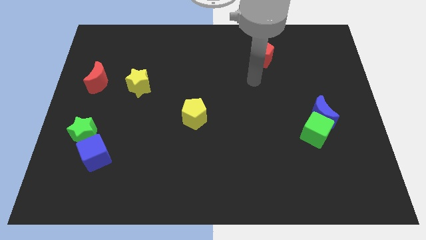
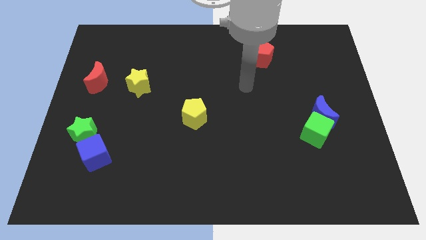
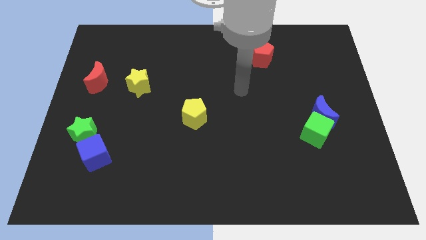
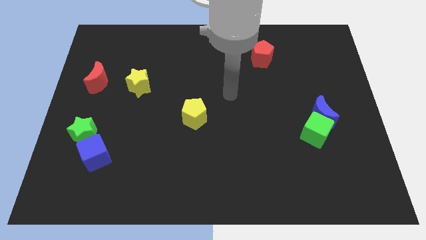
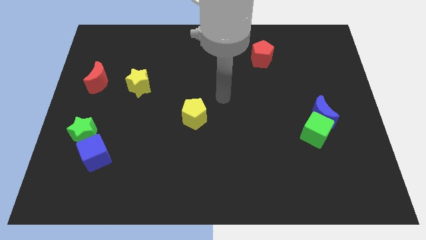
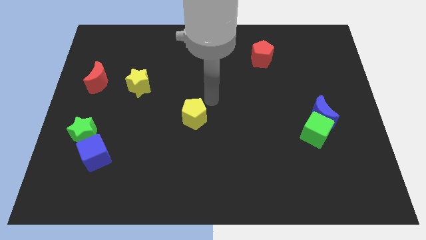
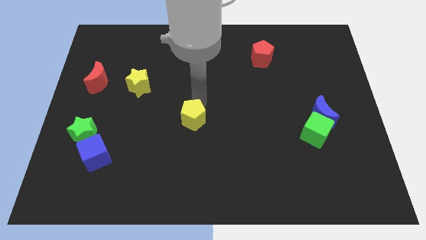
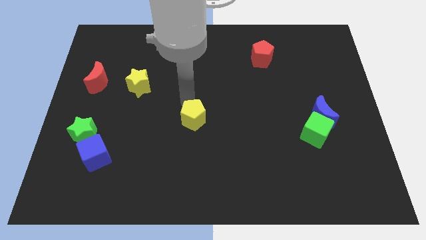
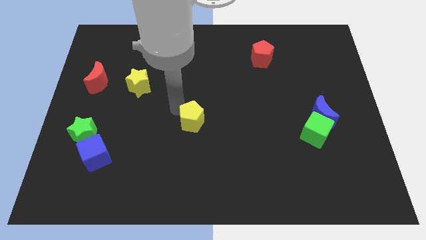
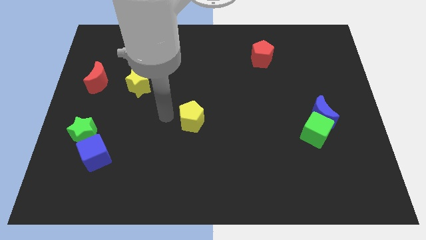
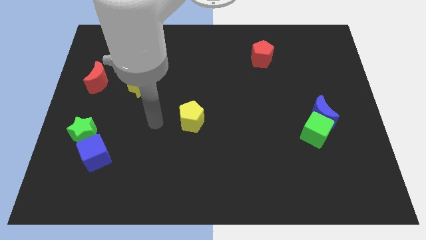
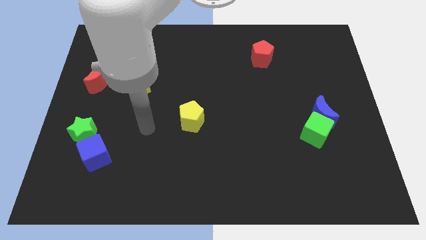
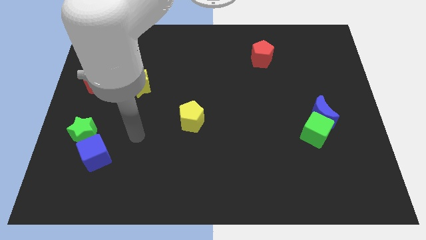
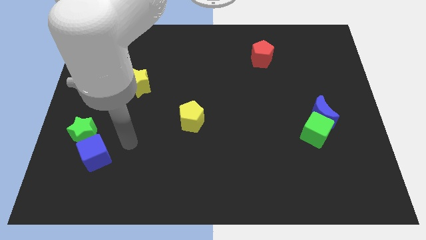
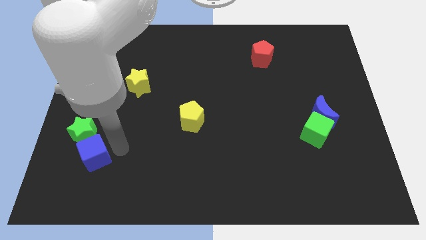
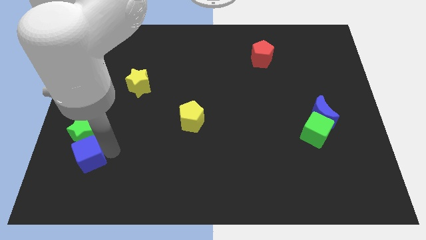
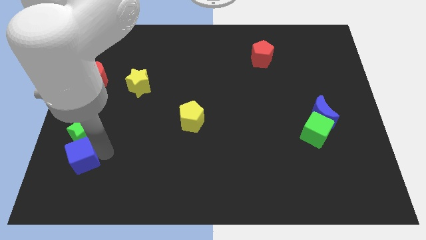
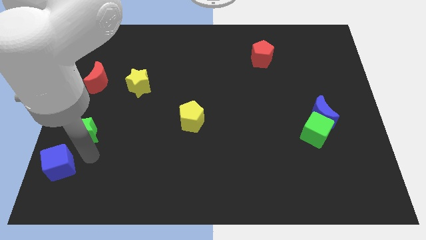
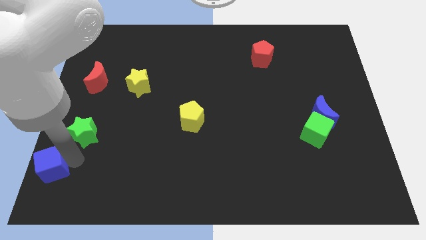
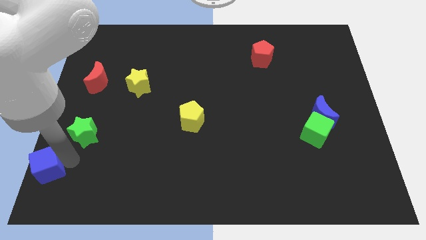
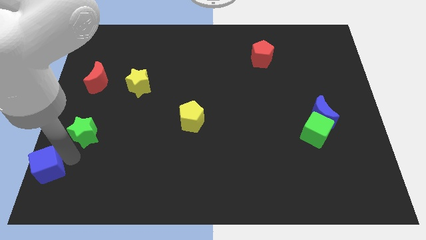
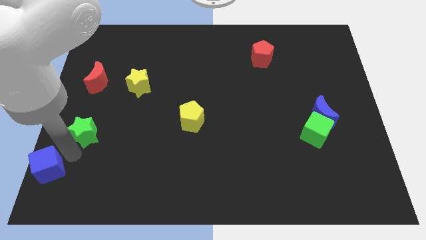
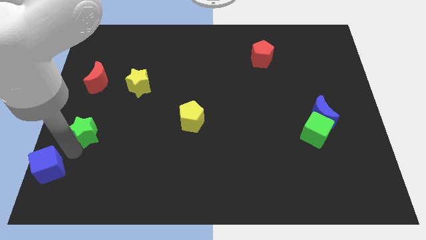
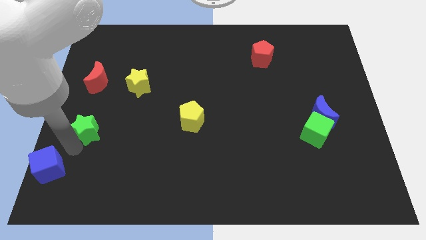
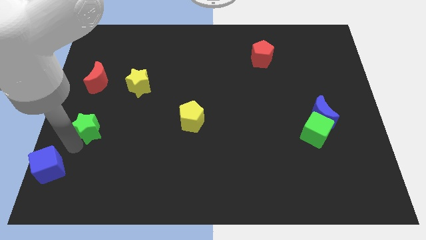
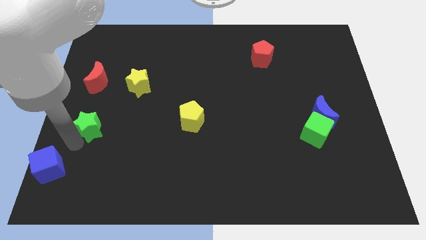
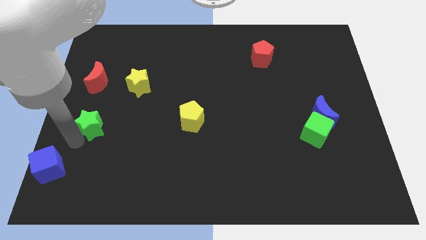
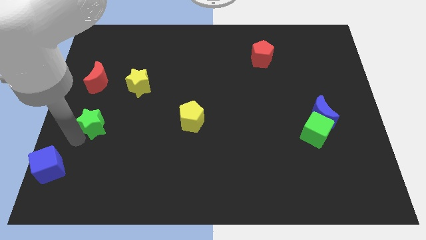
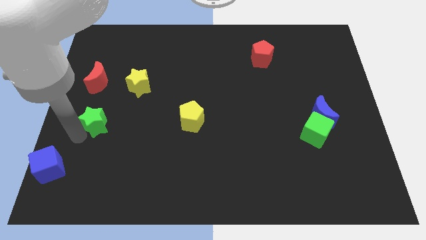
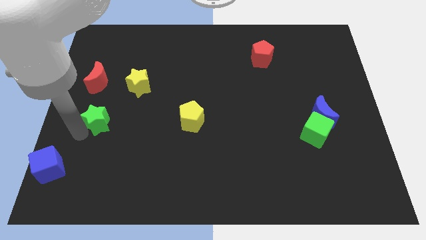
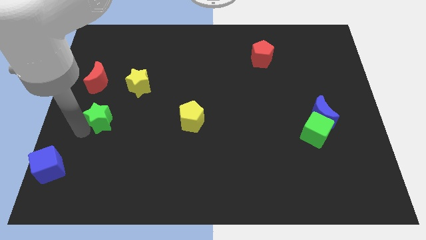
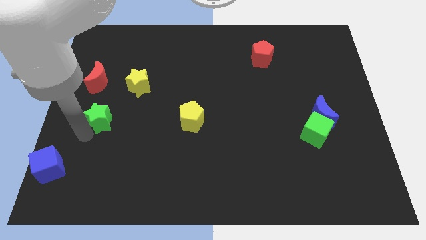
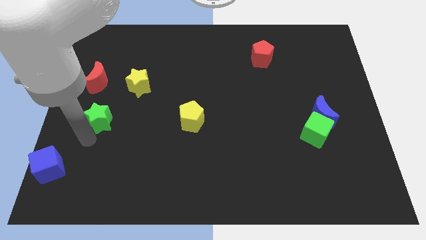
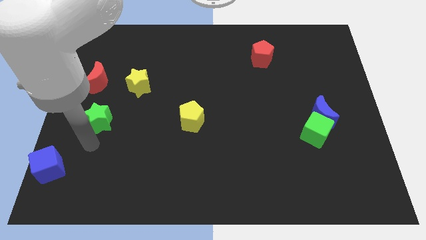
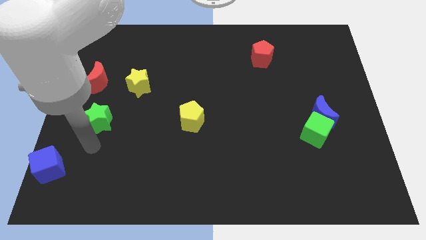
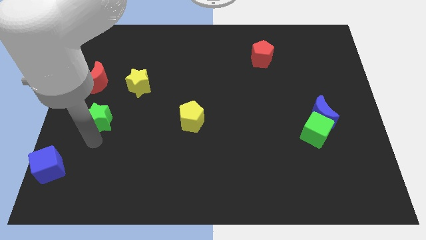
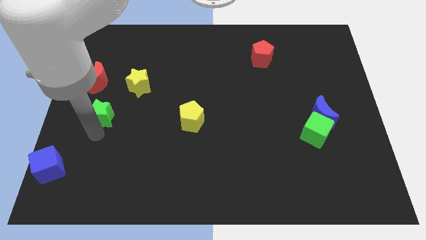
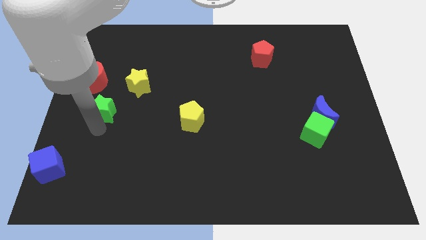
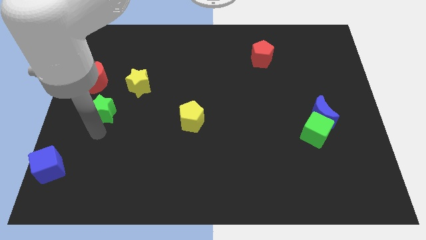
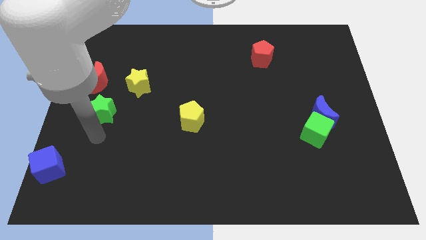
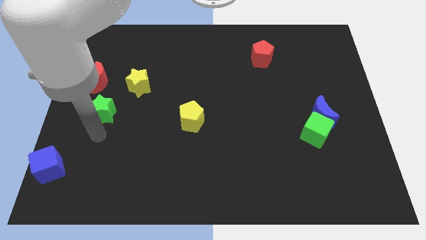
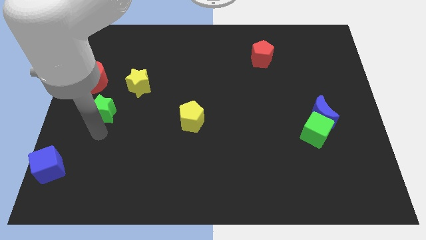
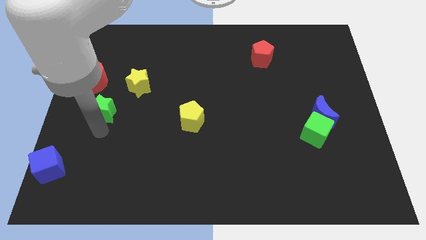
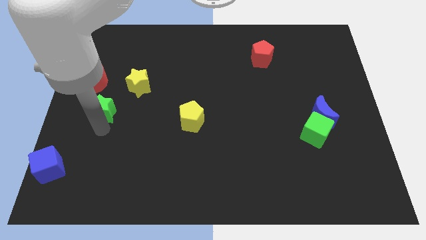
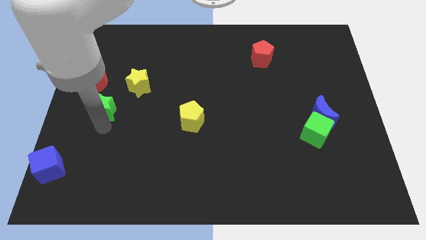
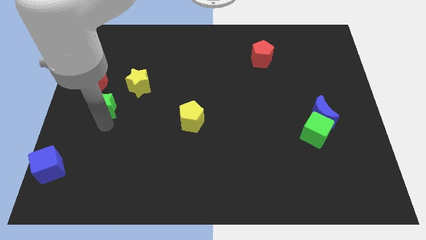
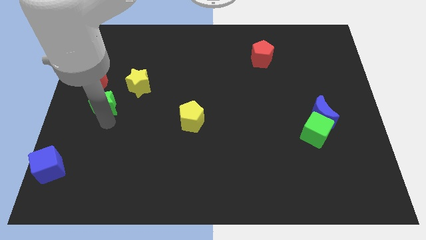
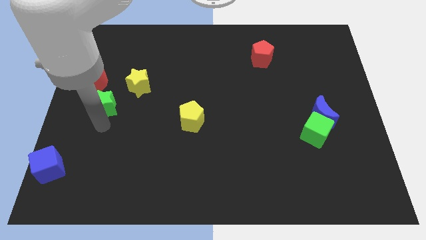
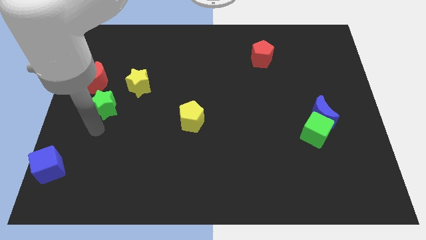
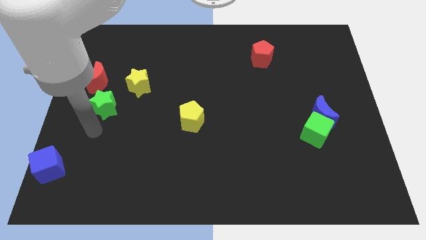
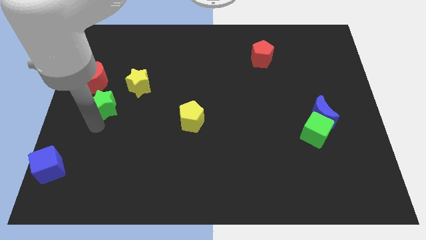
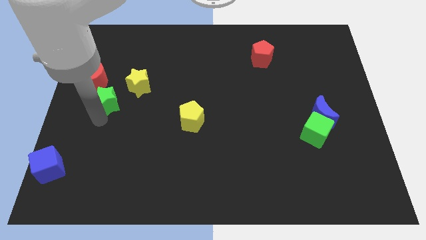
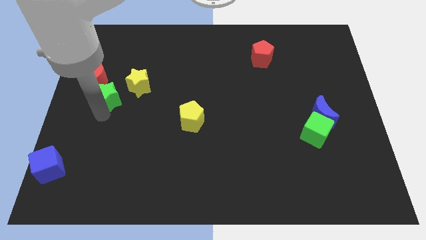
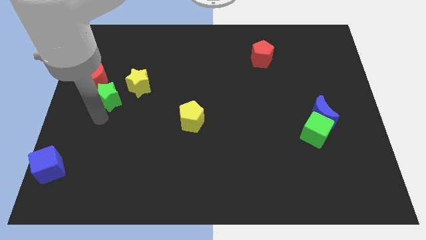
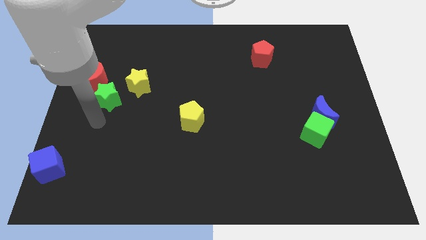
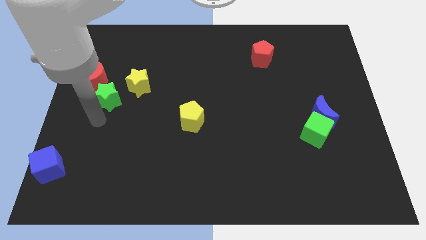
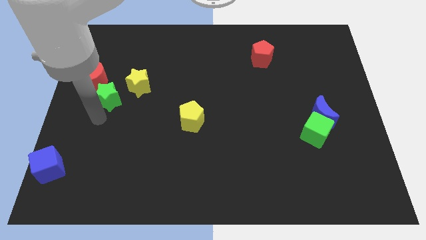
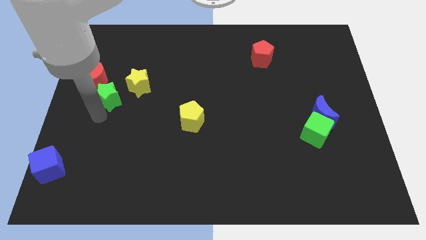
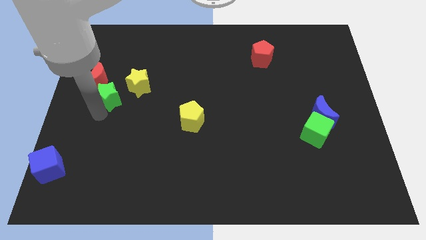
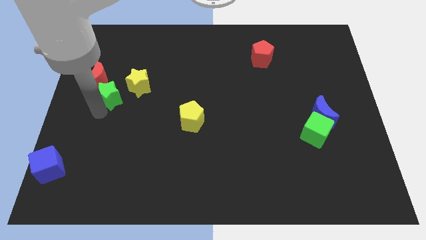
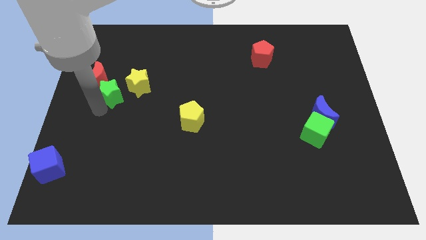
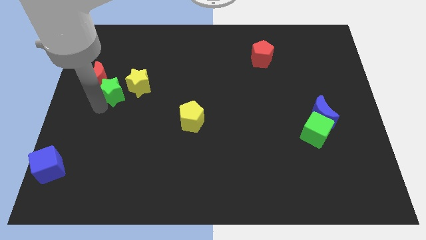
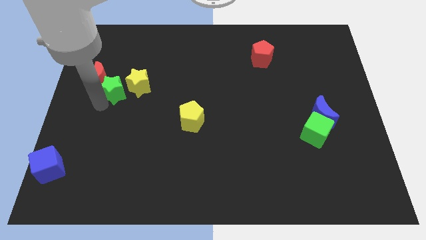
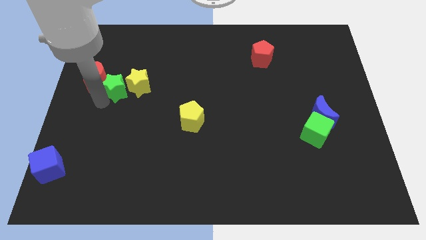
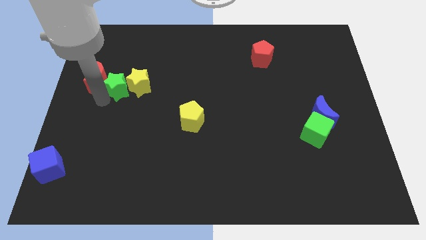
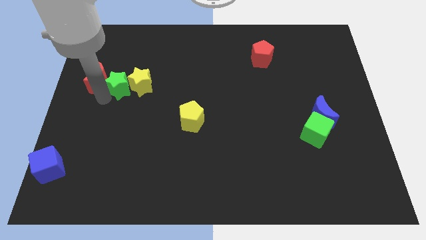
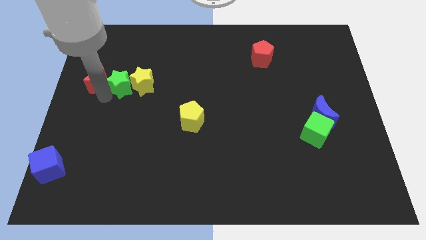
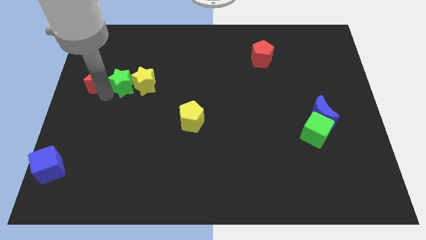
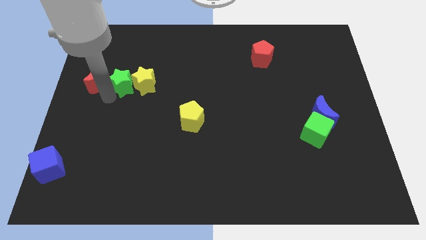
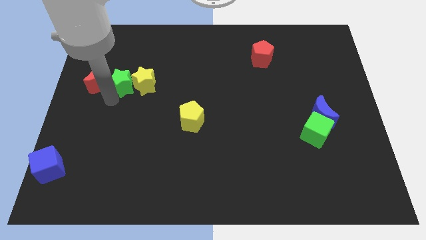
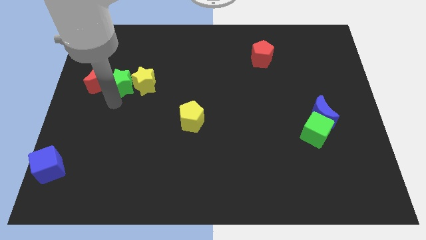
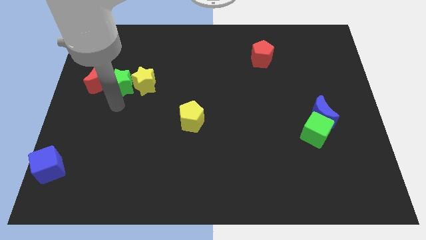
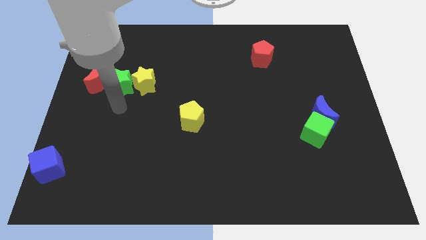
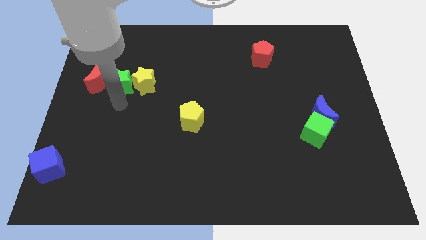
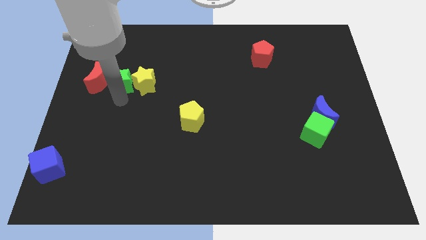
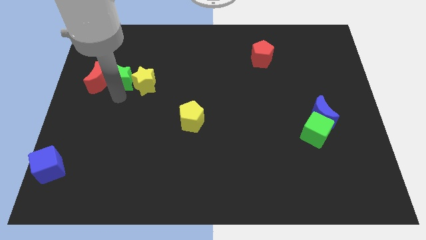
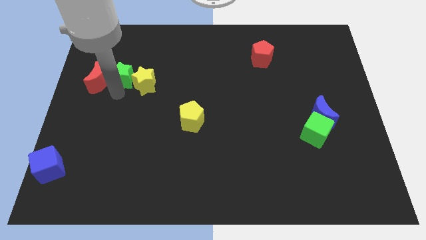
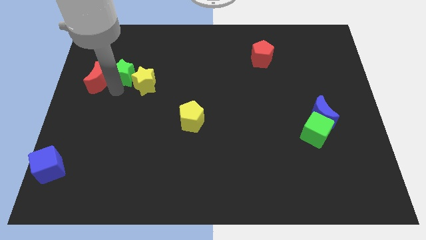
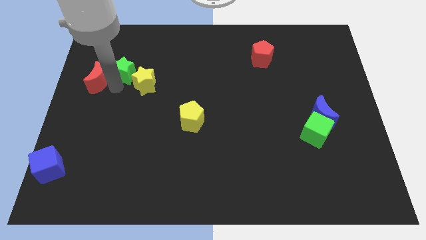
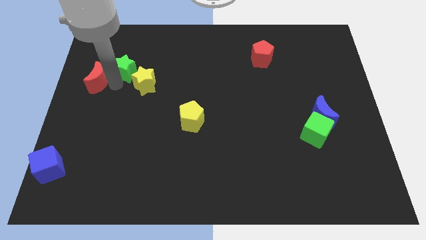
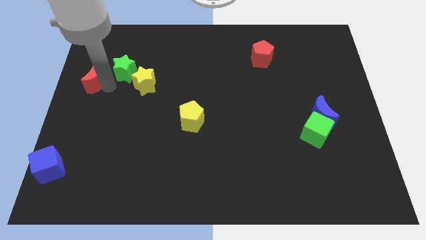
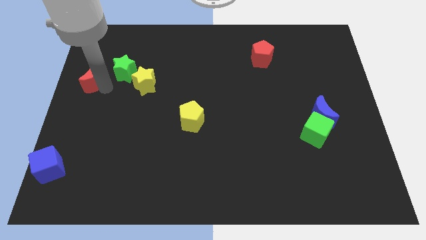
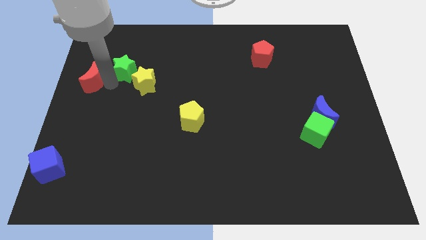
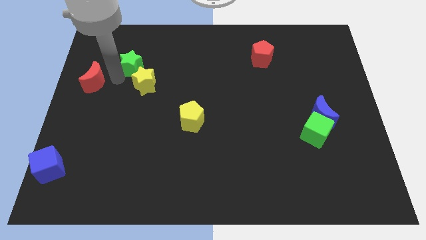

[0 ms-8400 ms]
move the green star above the yellow star
